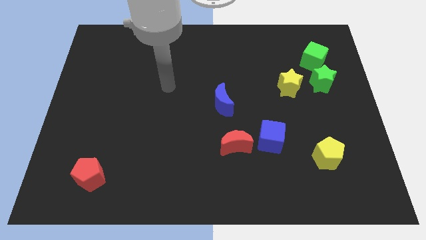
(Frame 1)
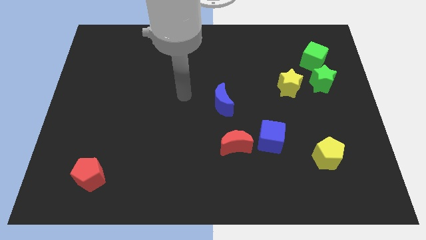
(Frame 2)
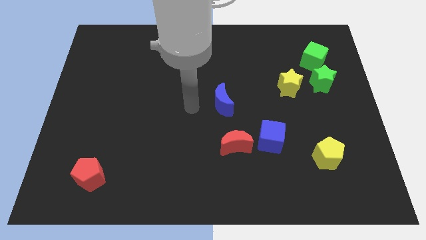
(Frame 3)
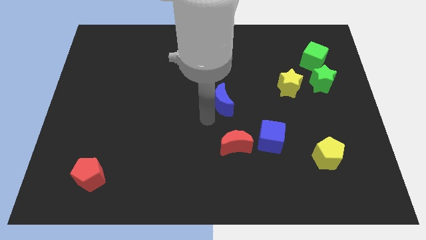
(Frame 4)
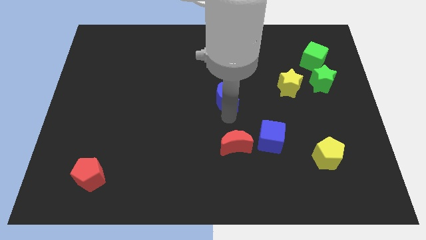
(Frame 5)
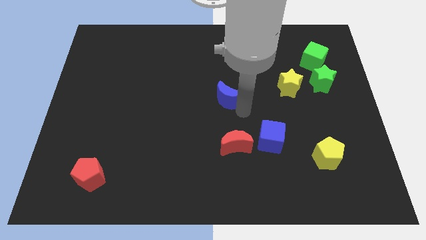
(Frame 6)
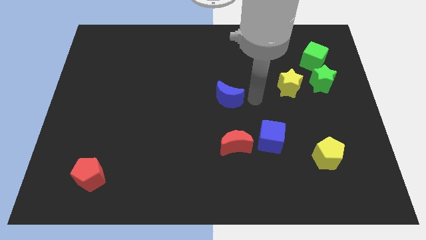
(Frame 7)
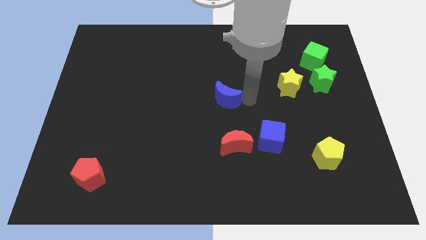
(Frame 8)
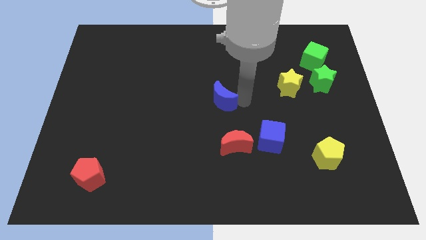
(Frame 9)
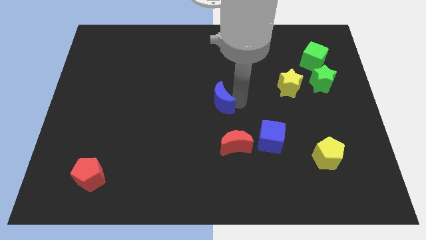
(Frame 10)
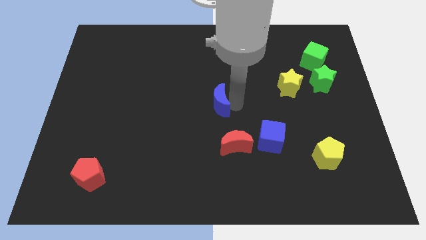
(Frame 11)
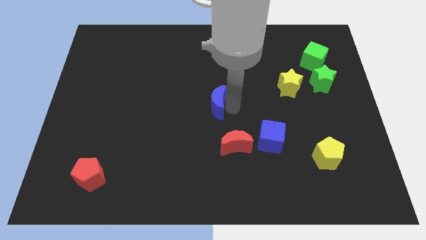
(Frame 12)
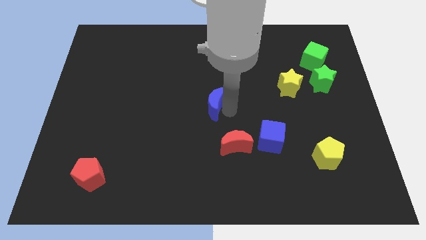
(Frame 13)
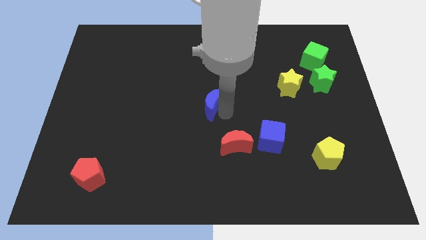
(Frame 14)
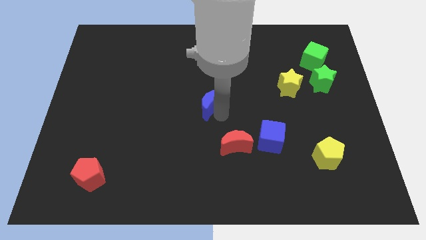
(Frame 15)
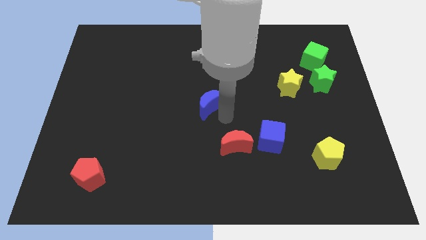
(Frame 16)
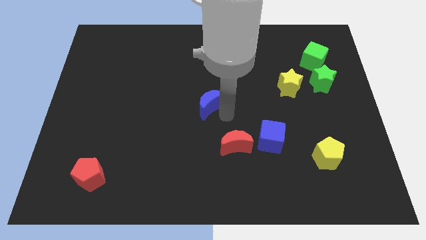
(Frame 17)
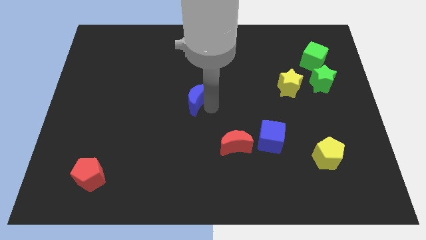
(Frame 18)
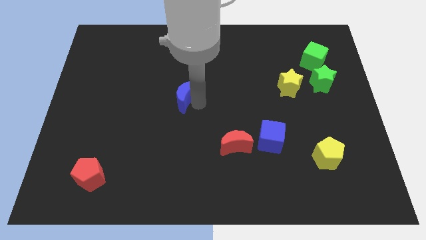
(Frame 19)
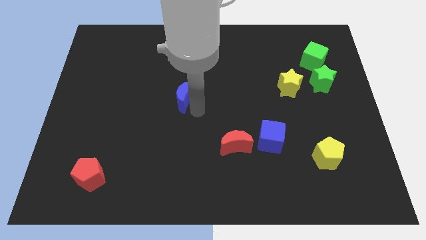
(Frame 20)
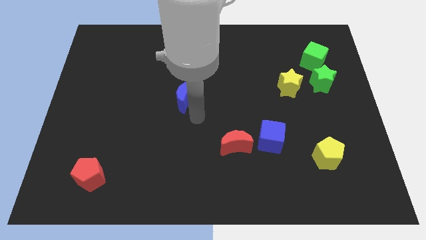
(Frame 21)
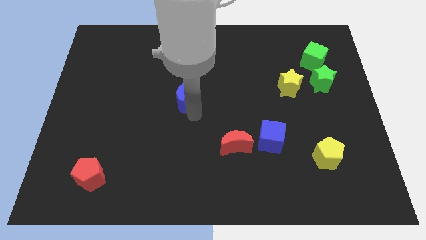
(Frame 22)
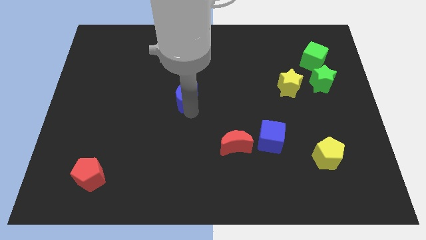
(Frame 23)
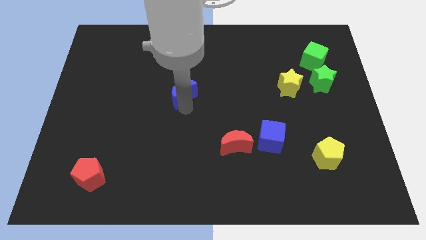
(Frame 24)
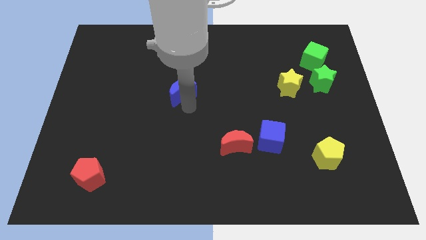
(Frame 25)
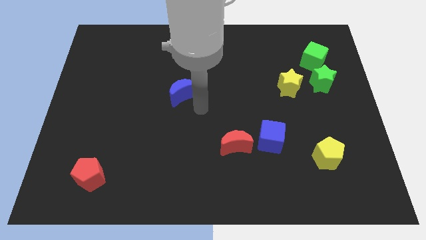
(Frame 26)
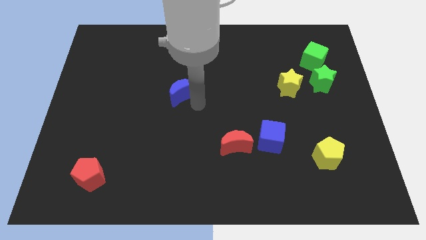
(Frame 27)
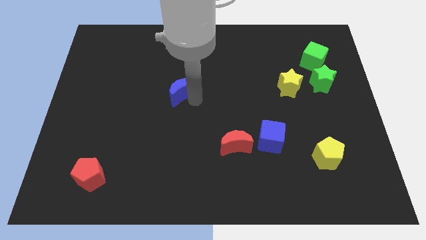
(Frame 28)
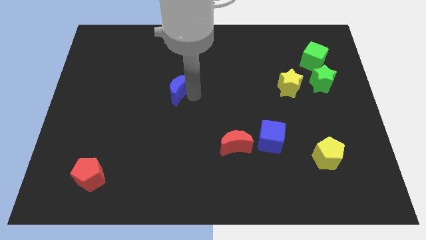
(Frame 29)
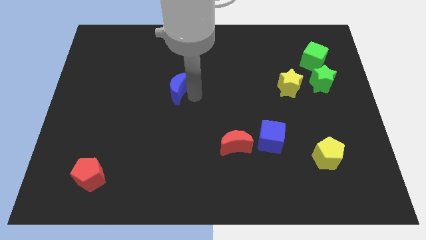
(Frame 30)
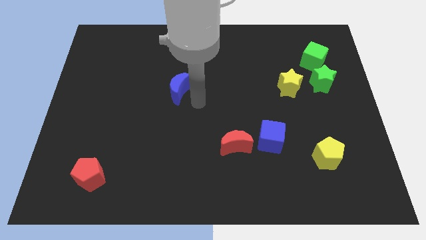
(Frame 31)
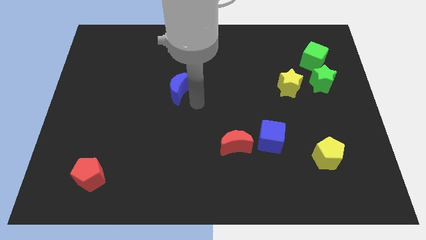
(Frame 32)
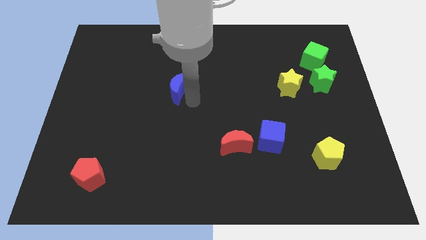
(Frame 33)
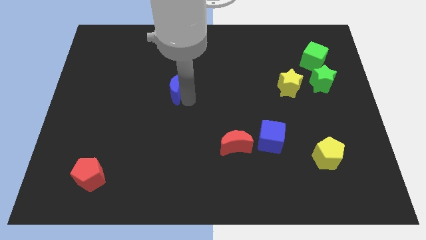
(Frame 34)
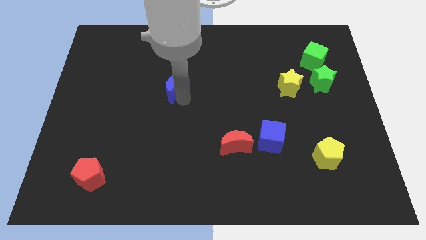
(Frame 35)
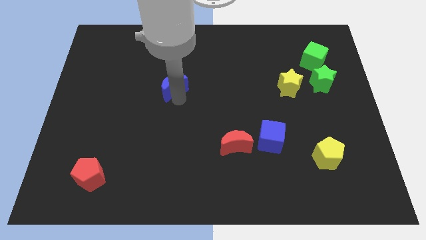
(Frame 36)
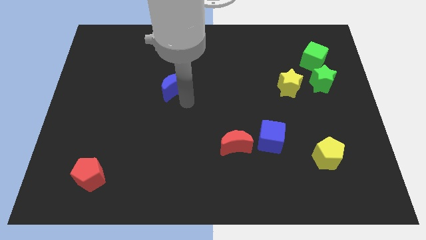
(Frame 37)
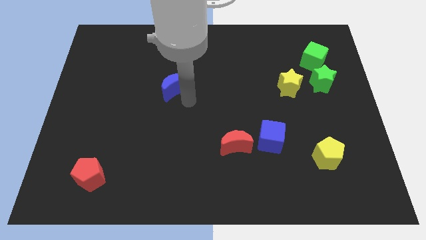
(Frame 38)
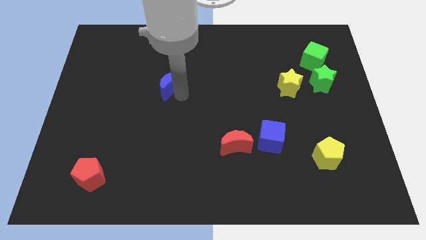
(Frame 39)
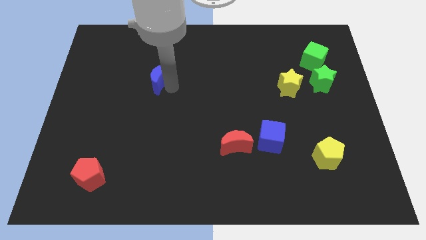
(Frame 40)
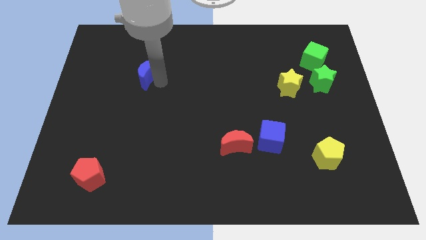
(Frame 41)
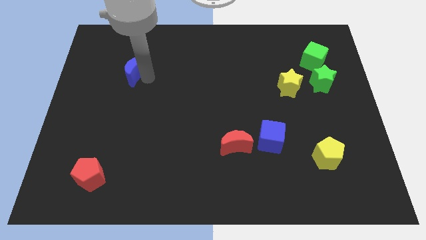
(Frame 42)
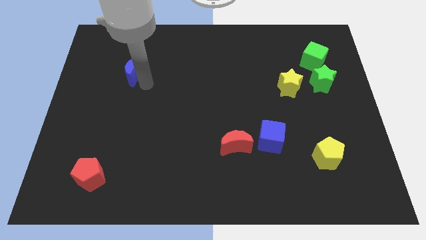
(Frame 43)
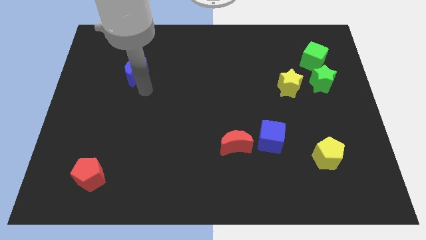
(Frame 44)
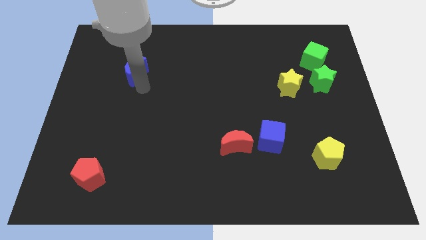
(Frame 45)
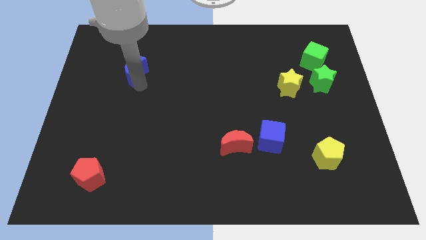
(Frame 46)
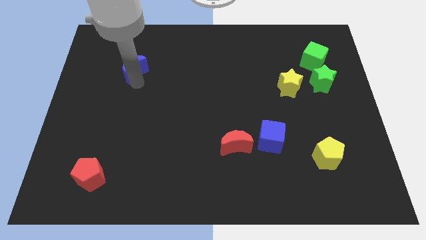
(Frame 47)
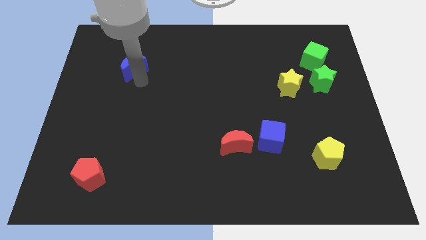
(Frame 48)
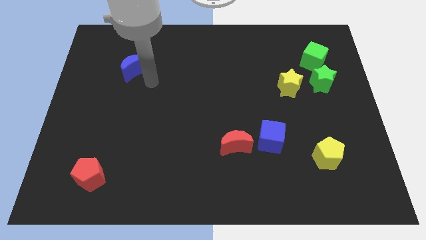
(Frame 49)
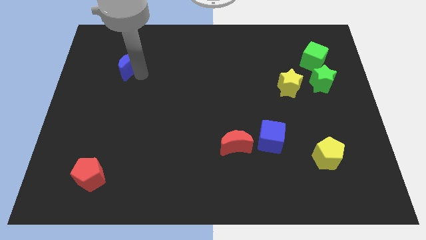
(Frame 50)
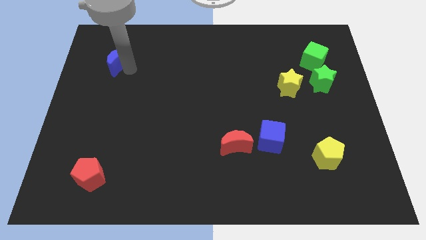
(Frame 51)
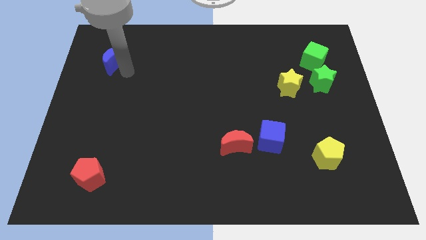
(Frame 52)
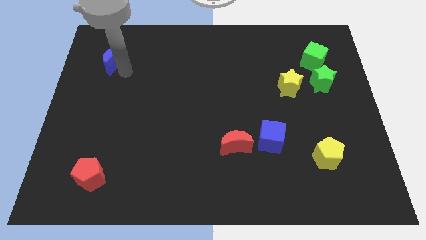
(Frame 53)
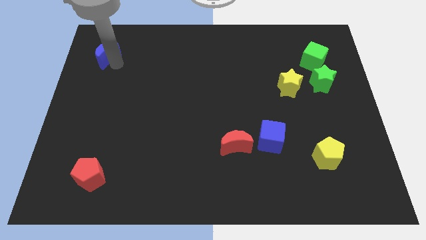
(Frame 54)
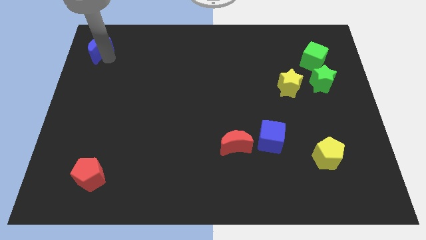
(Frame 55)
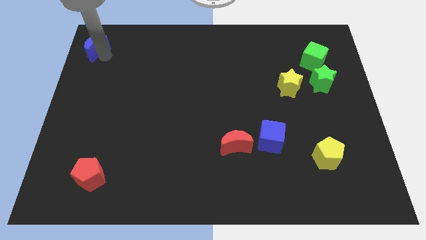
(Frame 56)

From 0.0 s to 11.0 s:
slide the blue moon to the top left of the board
